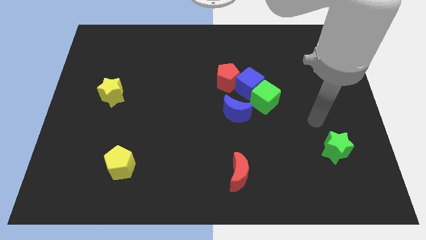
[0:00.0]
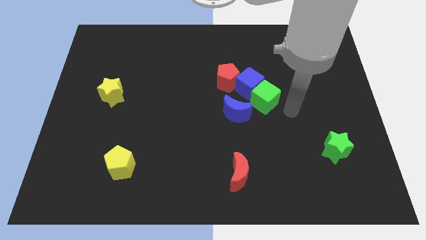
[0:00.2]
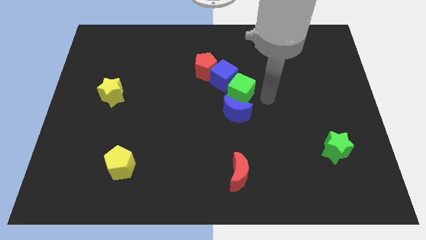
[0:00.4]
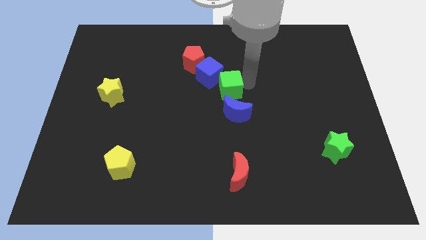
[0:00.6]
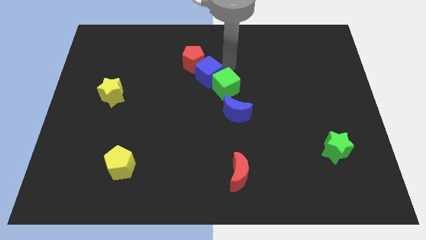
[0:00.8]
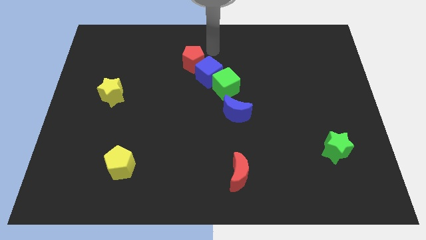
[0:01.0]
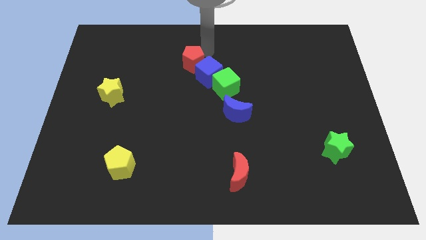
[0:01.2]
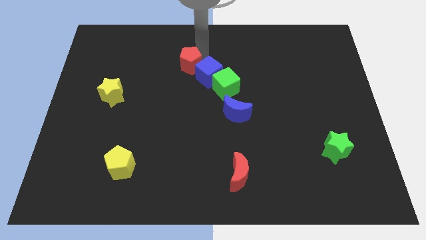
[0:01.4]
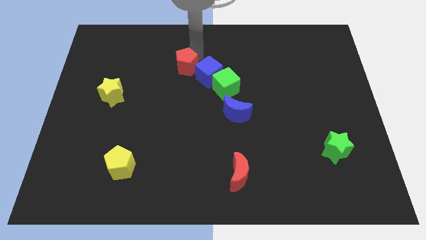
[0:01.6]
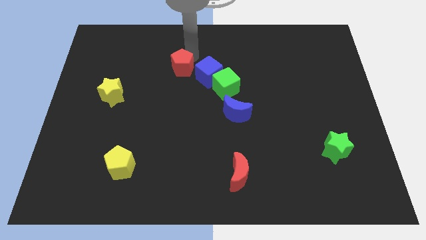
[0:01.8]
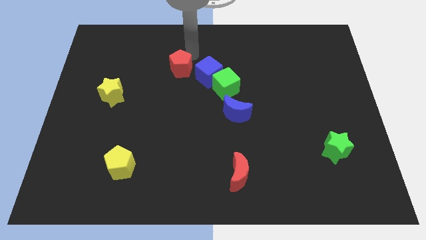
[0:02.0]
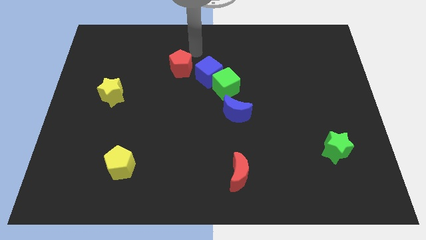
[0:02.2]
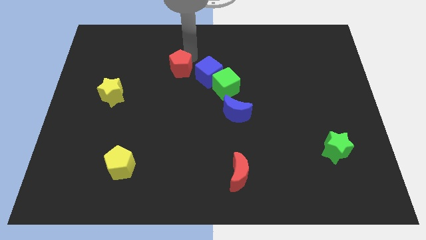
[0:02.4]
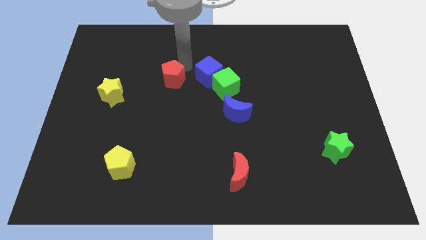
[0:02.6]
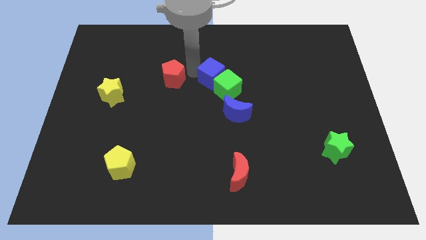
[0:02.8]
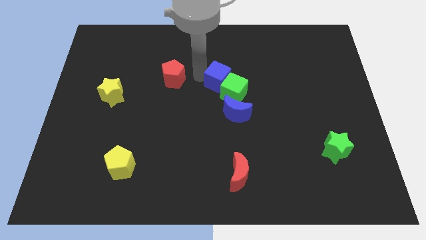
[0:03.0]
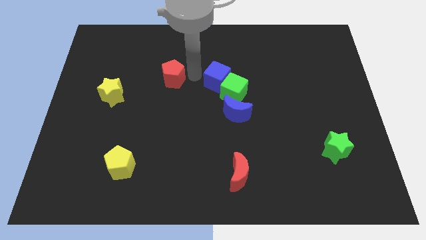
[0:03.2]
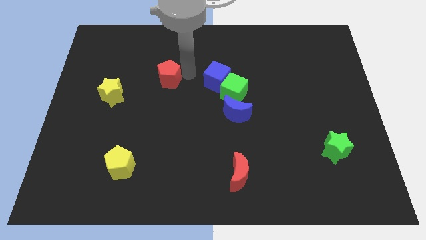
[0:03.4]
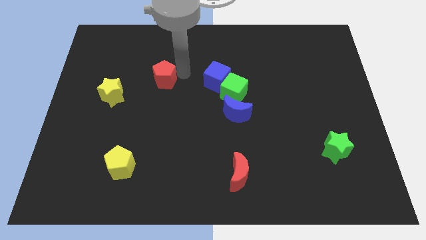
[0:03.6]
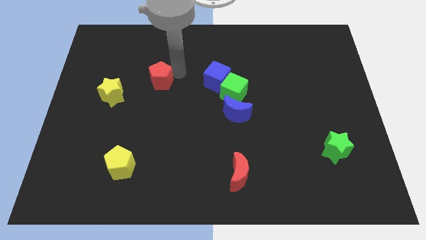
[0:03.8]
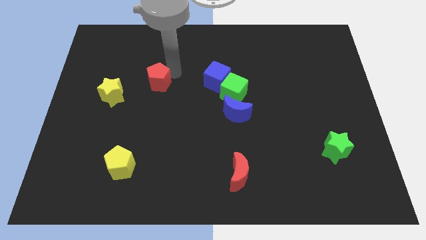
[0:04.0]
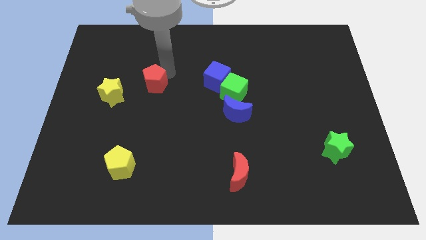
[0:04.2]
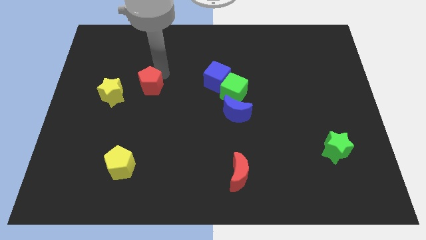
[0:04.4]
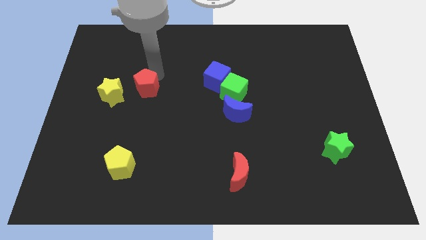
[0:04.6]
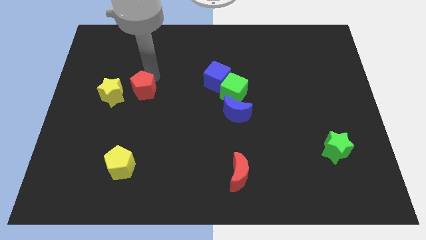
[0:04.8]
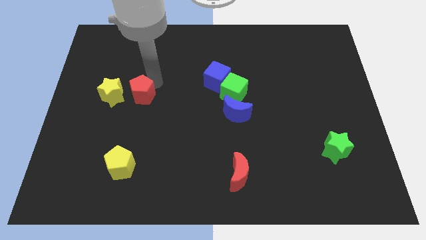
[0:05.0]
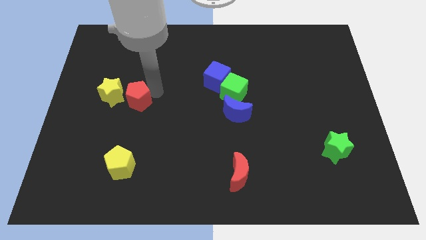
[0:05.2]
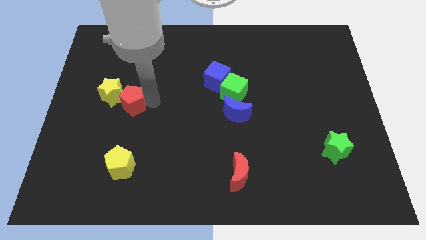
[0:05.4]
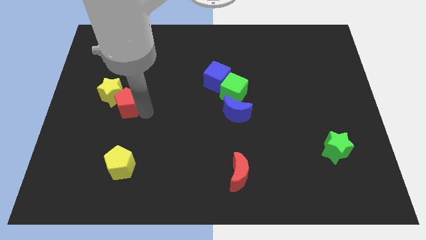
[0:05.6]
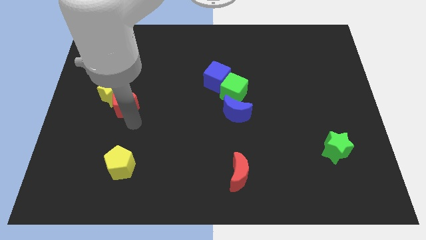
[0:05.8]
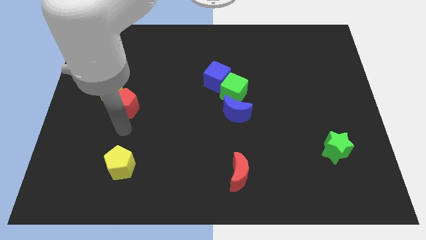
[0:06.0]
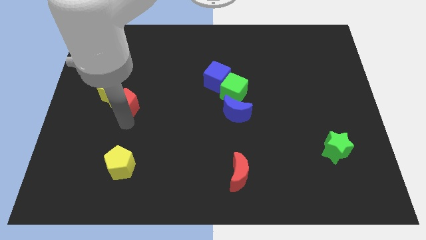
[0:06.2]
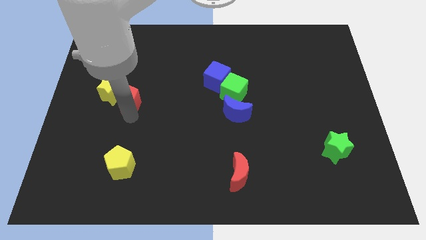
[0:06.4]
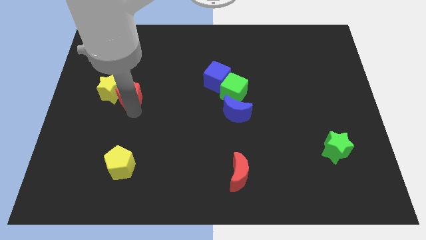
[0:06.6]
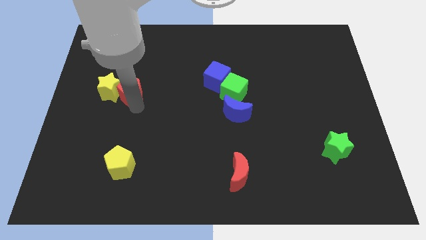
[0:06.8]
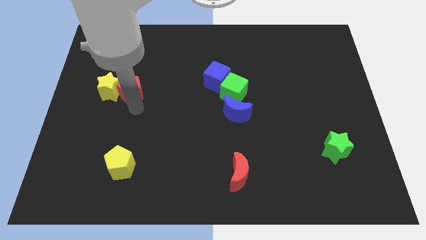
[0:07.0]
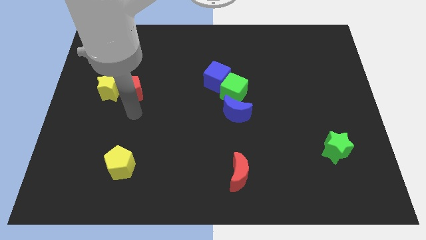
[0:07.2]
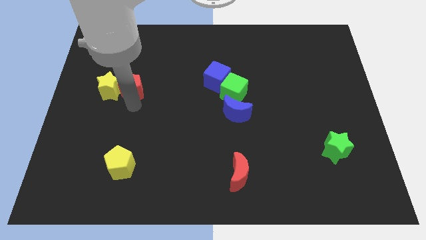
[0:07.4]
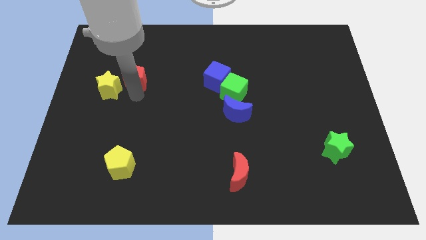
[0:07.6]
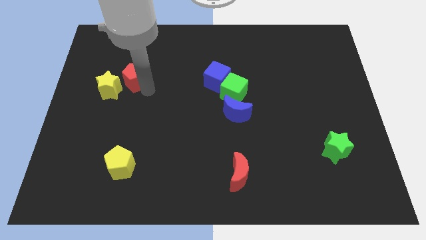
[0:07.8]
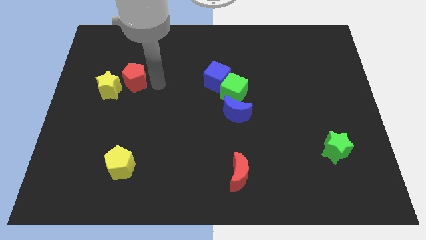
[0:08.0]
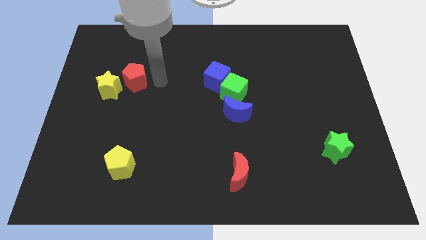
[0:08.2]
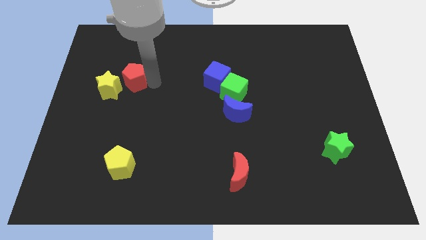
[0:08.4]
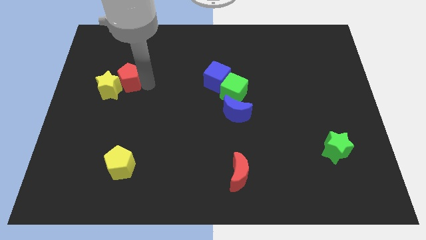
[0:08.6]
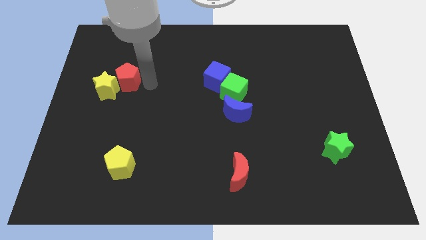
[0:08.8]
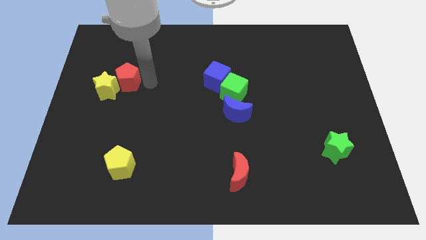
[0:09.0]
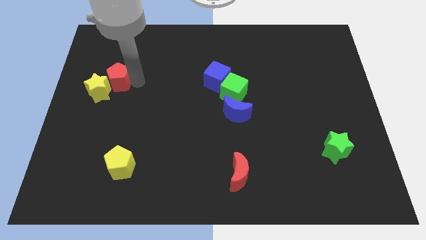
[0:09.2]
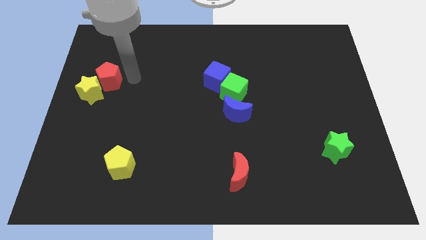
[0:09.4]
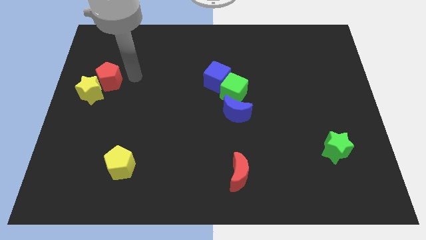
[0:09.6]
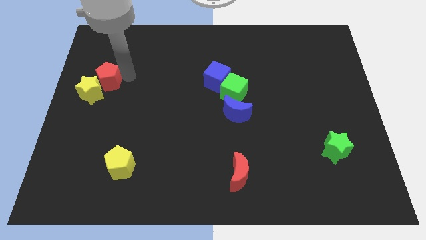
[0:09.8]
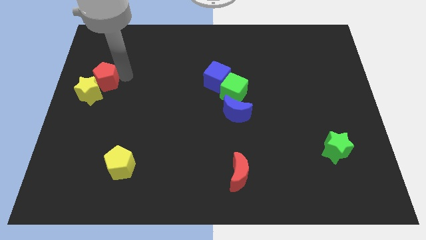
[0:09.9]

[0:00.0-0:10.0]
put the red pentagon to the left side

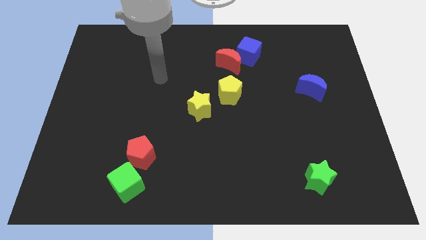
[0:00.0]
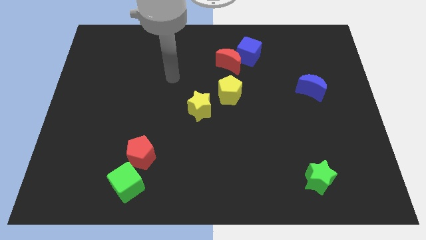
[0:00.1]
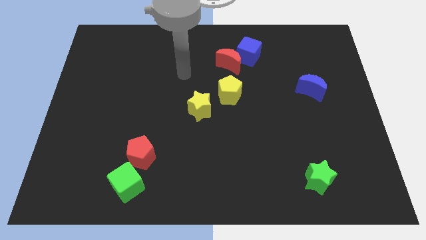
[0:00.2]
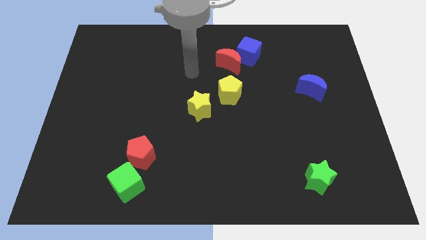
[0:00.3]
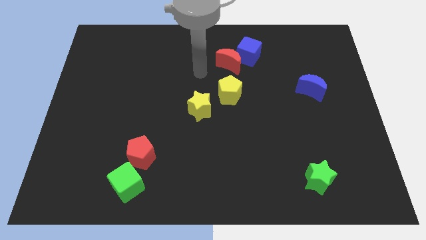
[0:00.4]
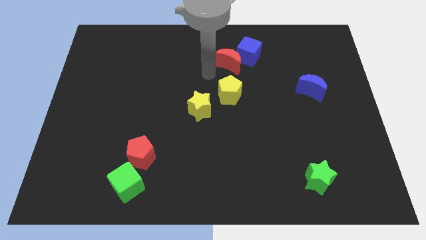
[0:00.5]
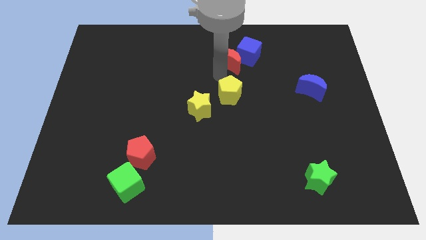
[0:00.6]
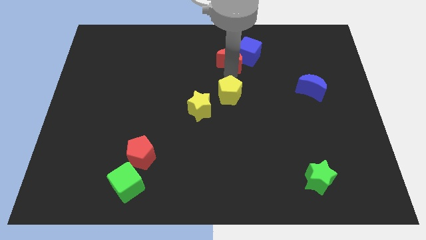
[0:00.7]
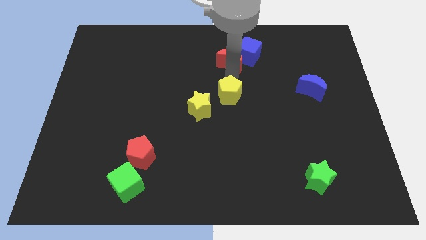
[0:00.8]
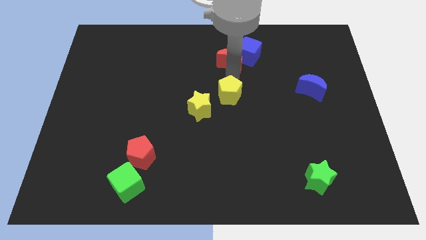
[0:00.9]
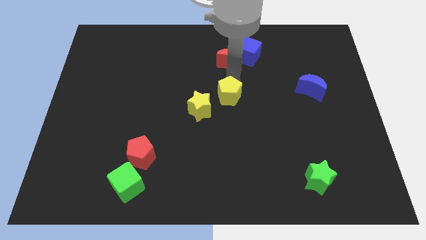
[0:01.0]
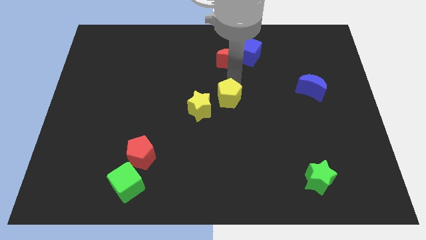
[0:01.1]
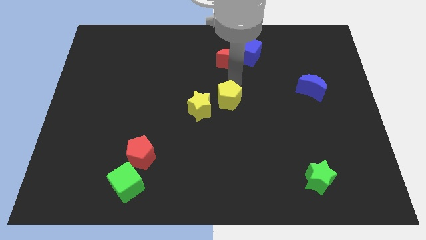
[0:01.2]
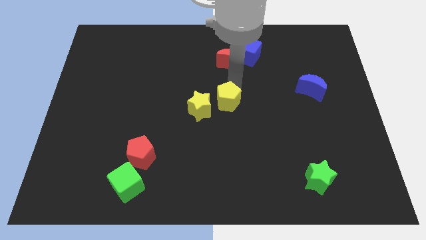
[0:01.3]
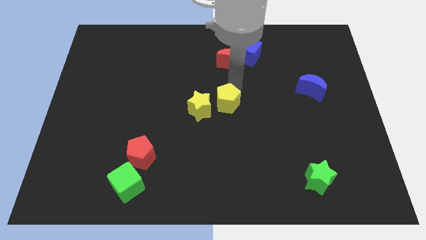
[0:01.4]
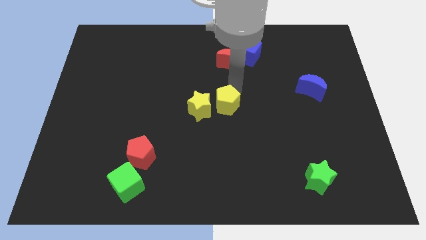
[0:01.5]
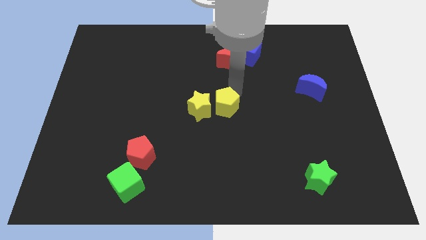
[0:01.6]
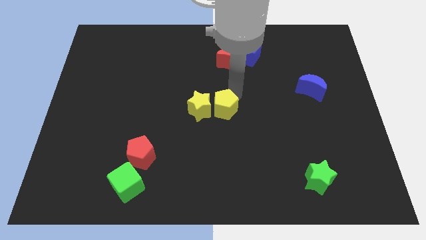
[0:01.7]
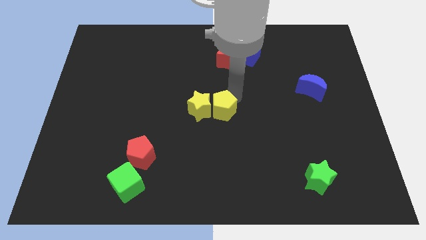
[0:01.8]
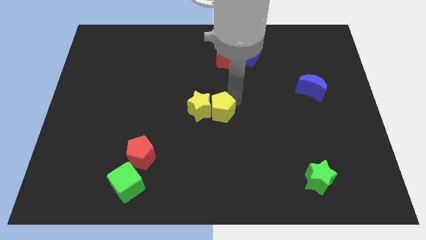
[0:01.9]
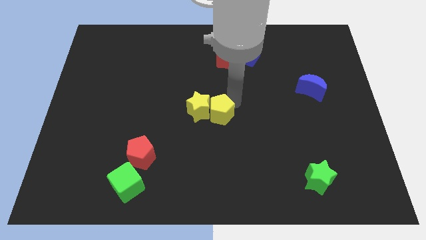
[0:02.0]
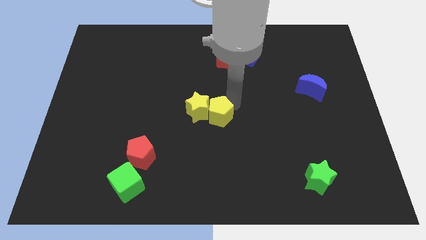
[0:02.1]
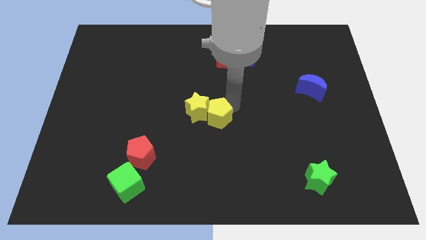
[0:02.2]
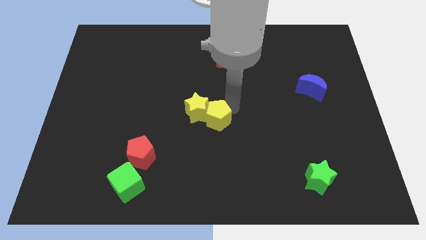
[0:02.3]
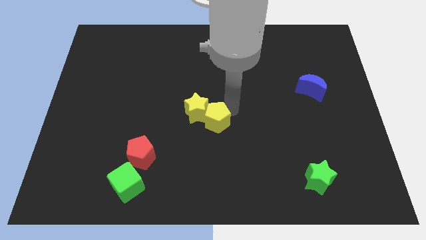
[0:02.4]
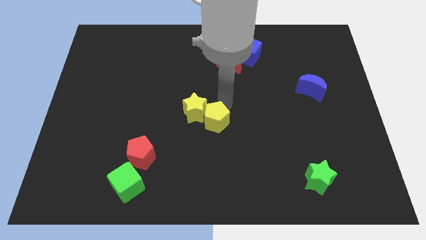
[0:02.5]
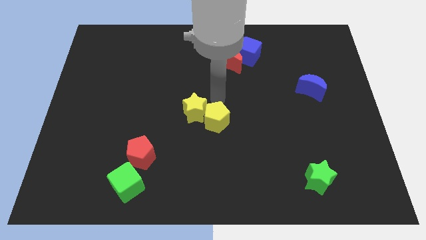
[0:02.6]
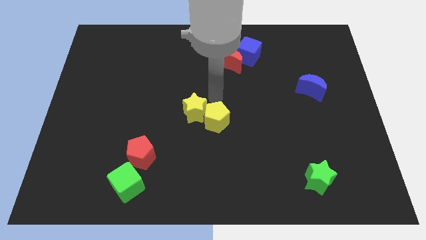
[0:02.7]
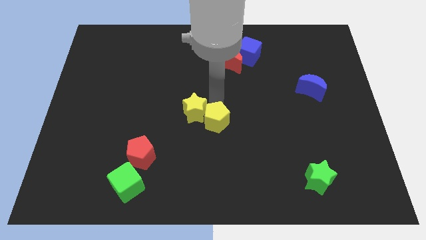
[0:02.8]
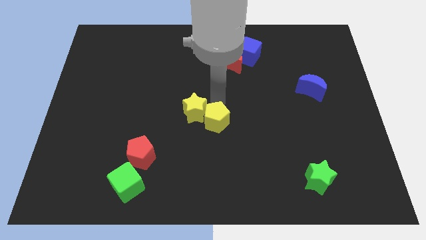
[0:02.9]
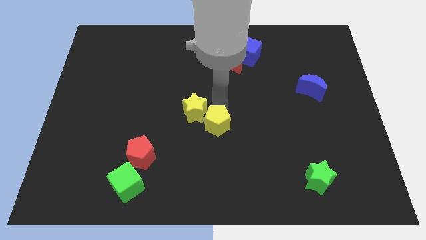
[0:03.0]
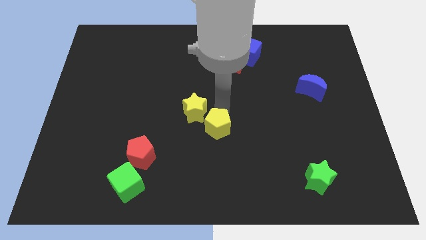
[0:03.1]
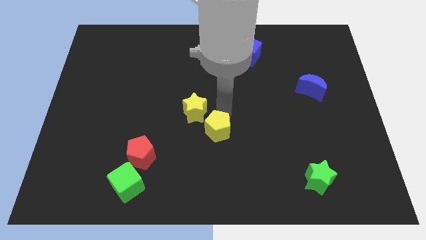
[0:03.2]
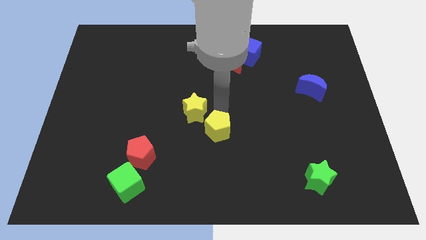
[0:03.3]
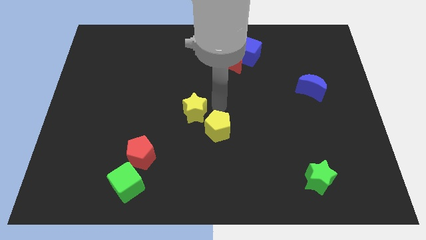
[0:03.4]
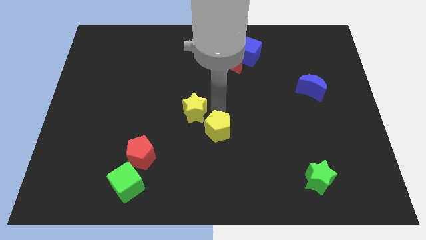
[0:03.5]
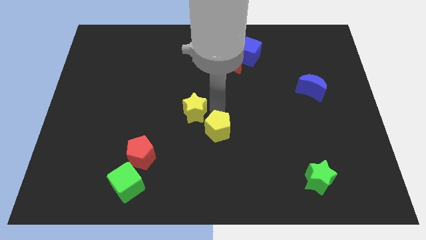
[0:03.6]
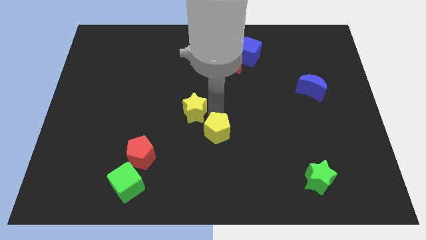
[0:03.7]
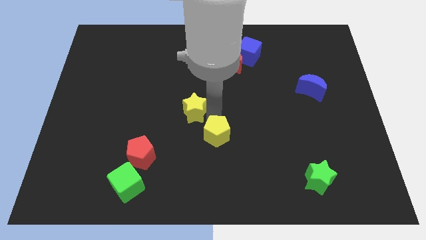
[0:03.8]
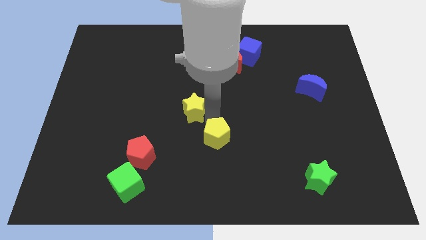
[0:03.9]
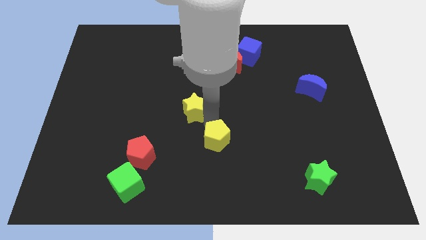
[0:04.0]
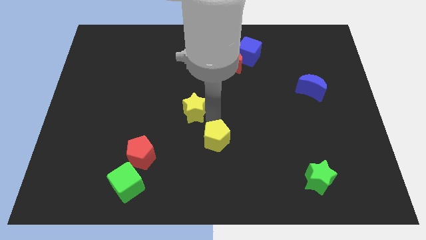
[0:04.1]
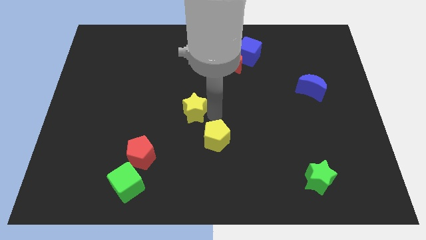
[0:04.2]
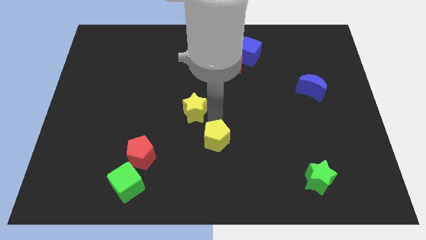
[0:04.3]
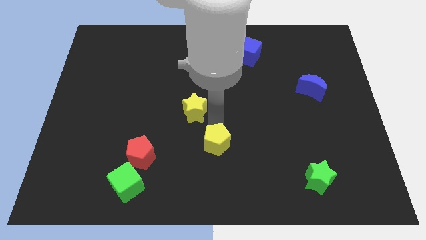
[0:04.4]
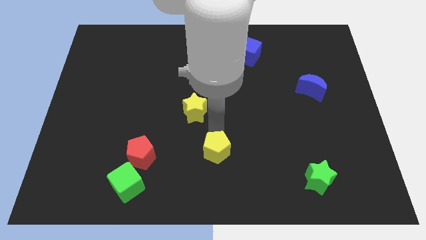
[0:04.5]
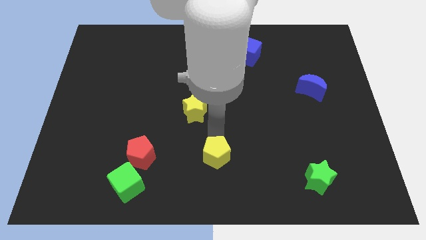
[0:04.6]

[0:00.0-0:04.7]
slide the yellow pentagon to the bottom side
